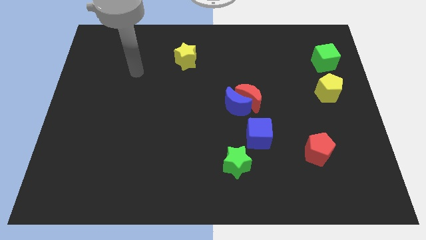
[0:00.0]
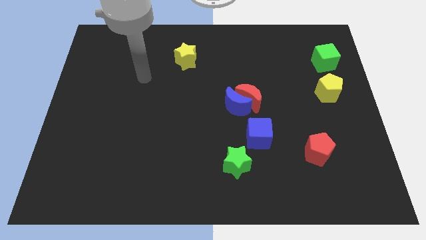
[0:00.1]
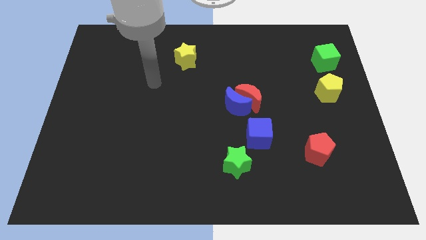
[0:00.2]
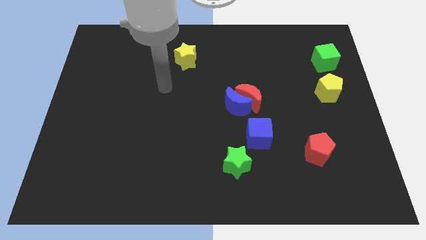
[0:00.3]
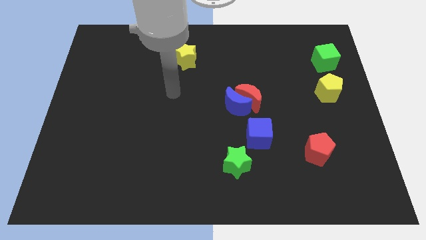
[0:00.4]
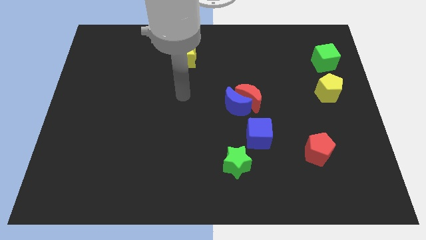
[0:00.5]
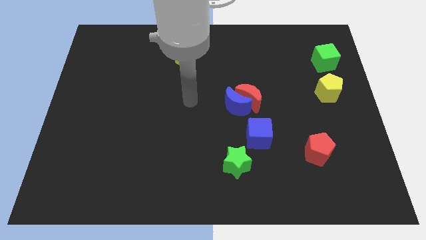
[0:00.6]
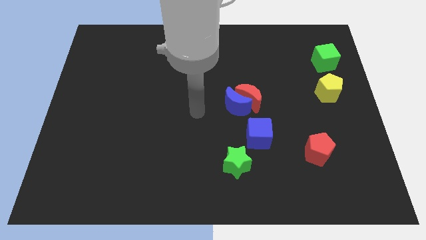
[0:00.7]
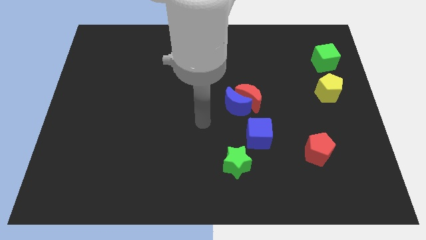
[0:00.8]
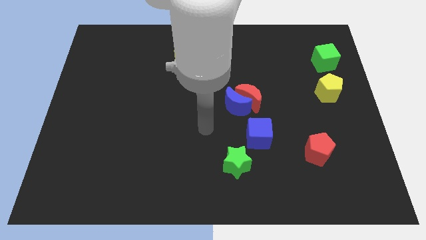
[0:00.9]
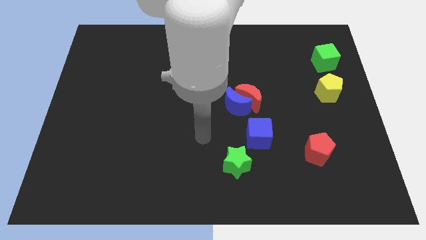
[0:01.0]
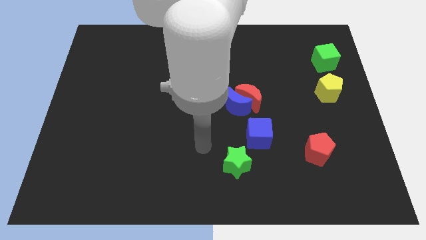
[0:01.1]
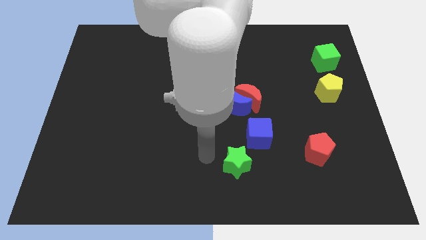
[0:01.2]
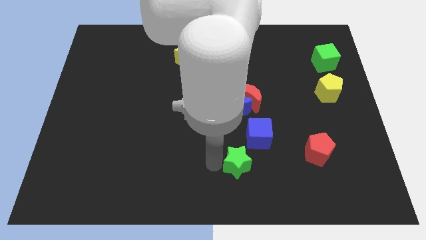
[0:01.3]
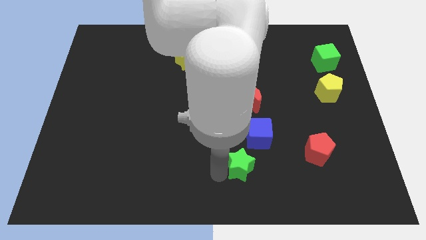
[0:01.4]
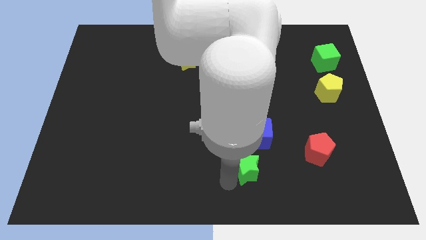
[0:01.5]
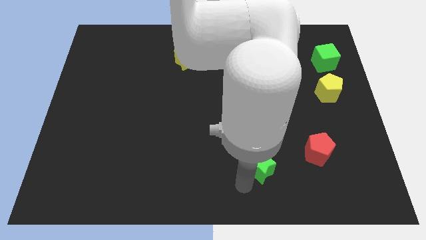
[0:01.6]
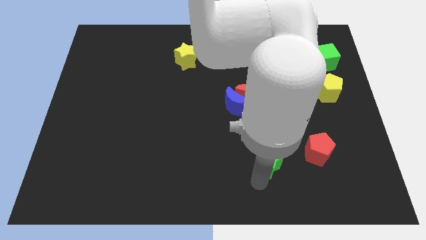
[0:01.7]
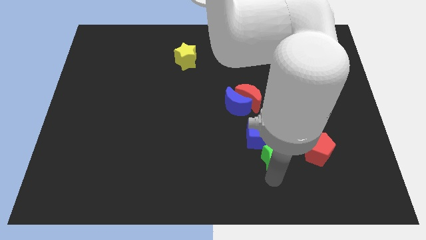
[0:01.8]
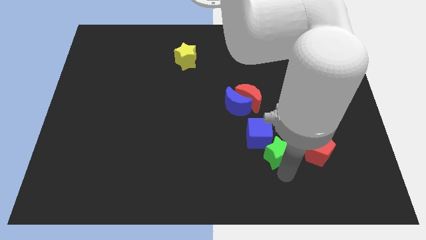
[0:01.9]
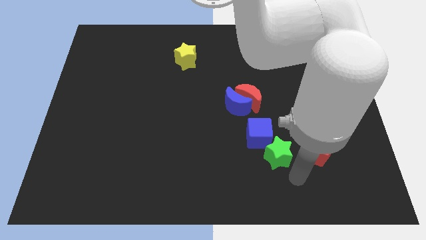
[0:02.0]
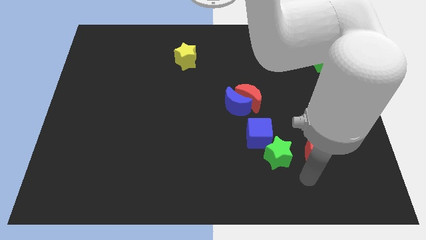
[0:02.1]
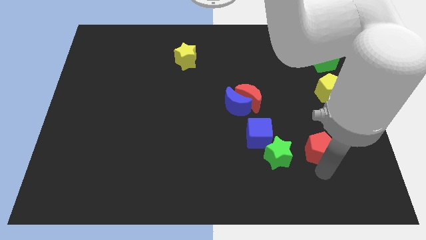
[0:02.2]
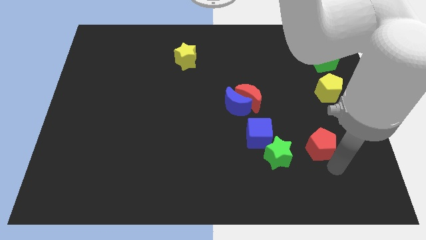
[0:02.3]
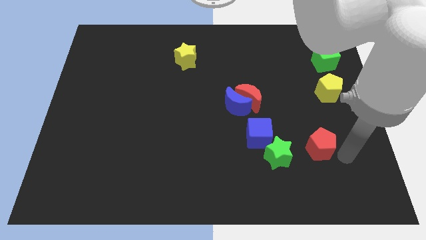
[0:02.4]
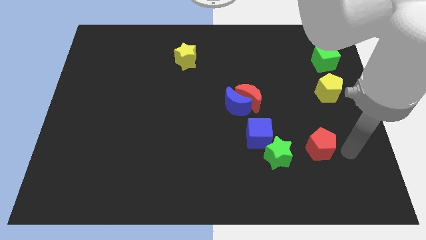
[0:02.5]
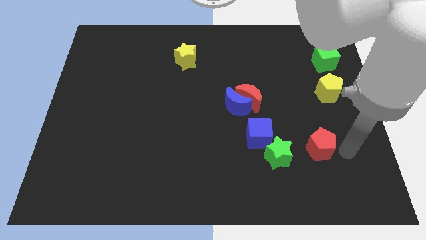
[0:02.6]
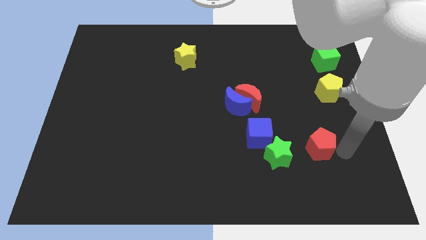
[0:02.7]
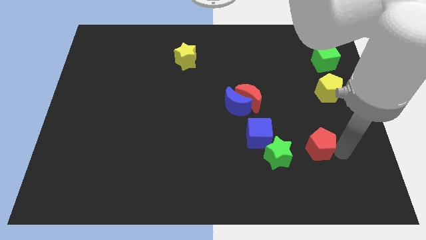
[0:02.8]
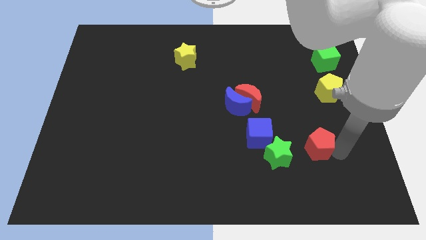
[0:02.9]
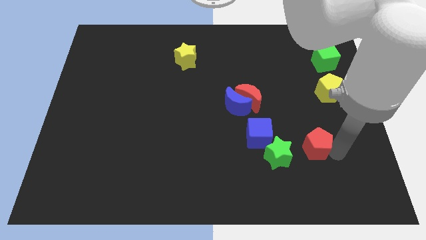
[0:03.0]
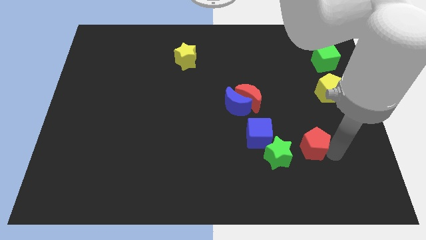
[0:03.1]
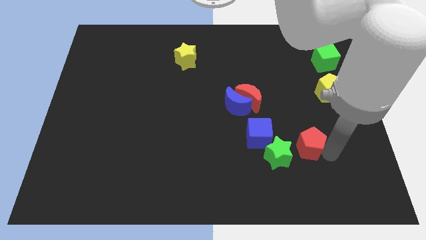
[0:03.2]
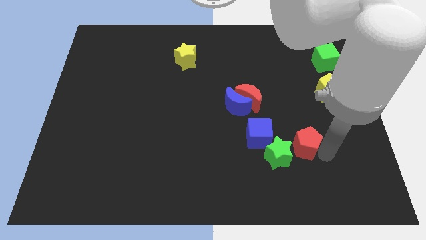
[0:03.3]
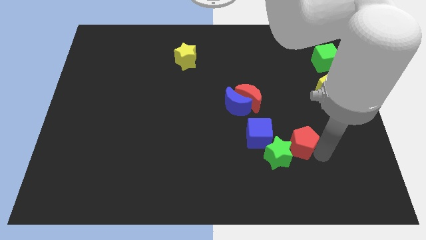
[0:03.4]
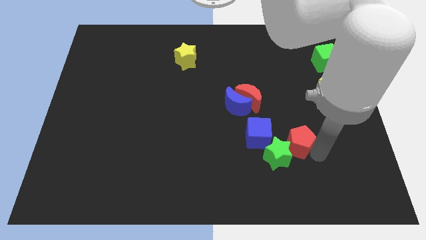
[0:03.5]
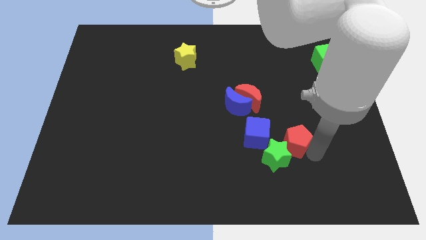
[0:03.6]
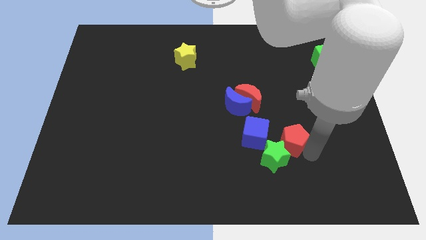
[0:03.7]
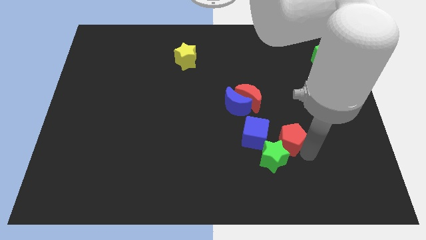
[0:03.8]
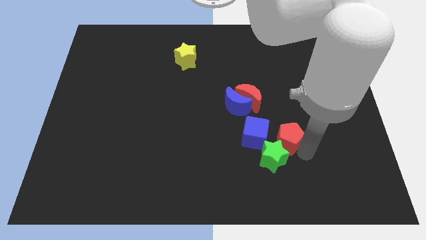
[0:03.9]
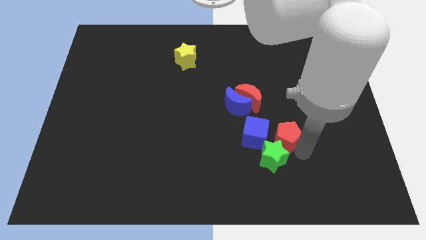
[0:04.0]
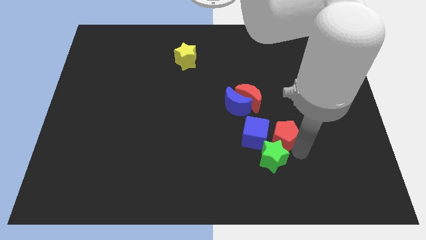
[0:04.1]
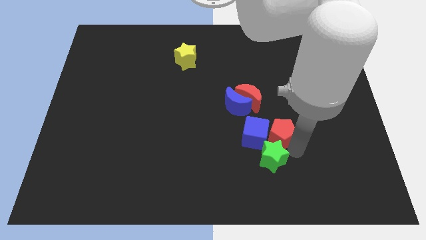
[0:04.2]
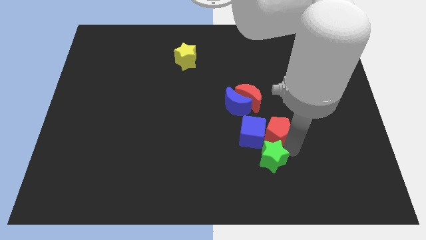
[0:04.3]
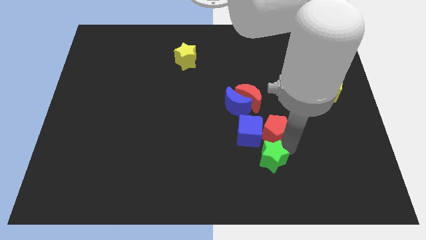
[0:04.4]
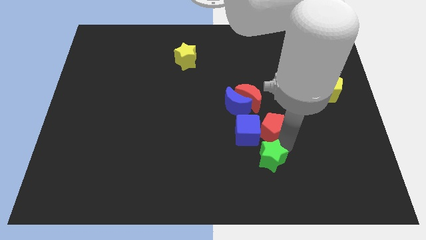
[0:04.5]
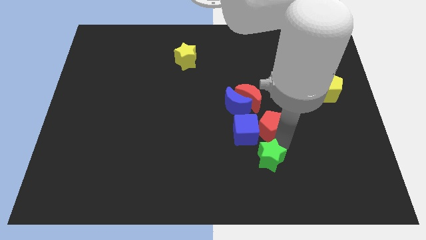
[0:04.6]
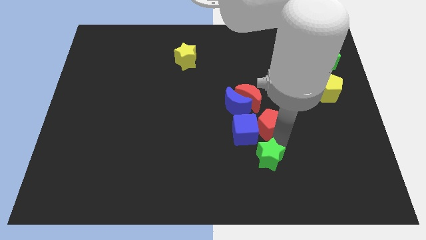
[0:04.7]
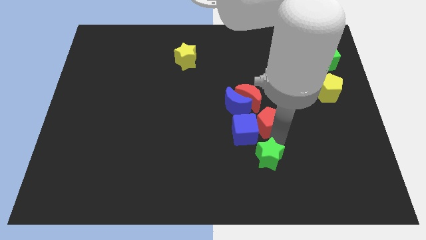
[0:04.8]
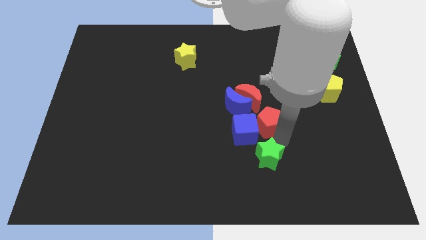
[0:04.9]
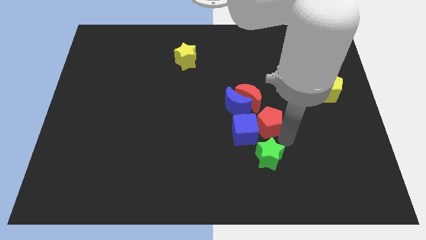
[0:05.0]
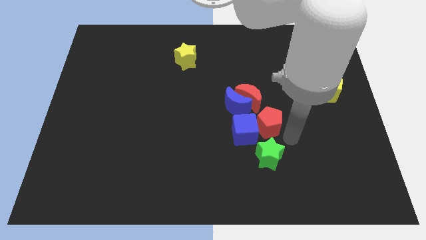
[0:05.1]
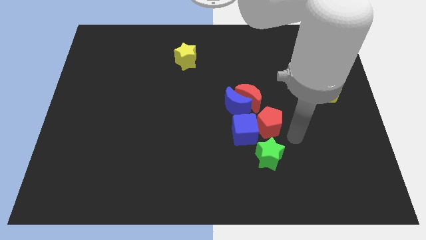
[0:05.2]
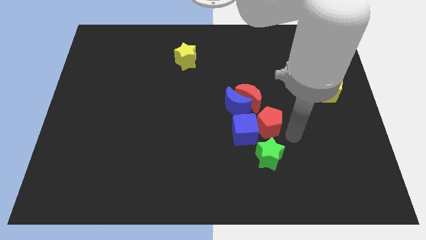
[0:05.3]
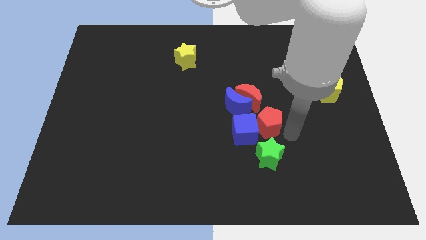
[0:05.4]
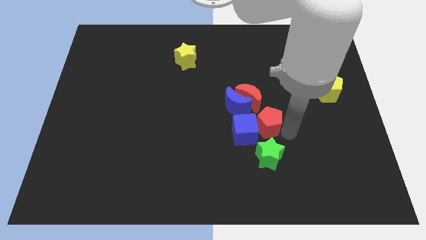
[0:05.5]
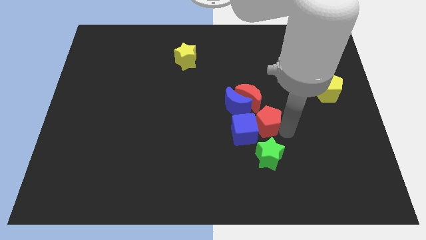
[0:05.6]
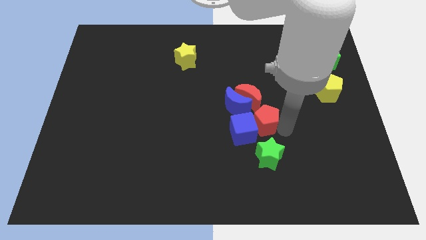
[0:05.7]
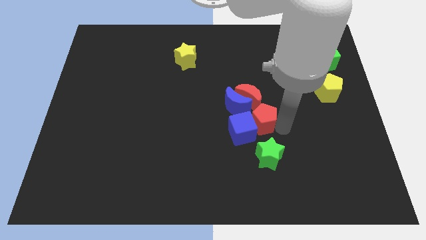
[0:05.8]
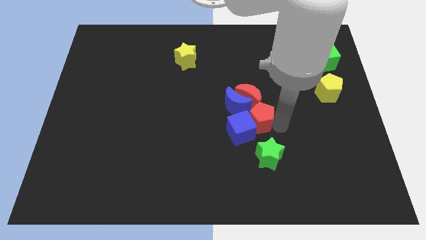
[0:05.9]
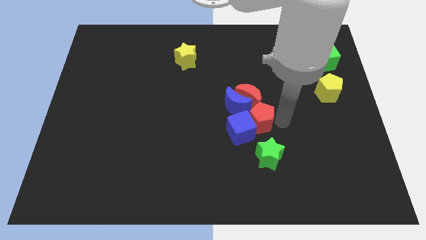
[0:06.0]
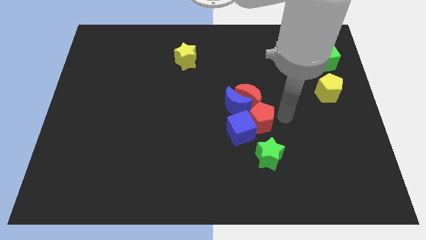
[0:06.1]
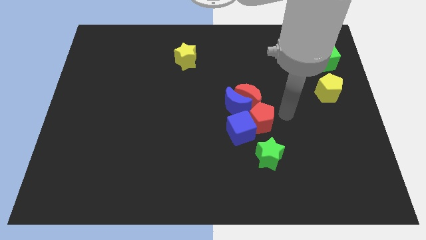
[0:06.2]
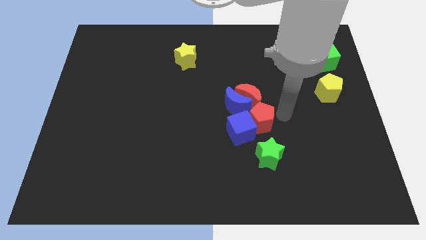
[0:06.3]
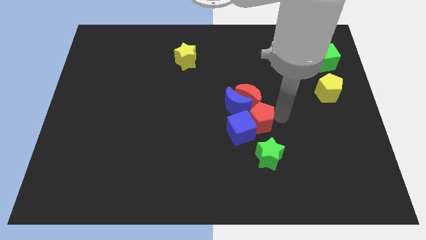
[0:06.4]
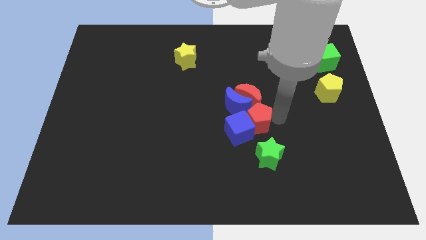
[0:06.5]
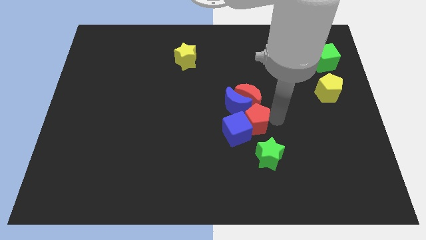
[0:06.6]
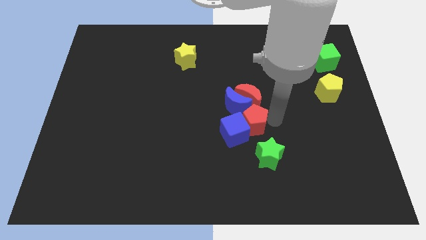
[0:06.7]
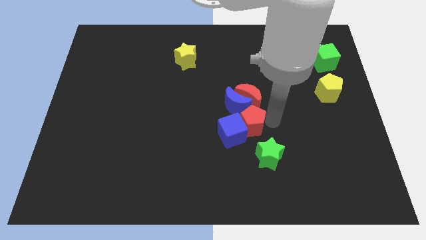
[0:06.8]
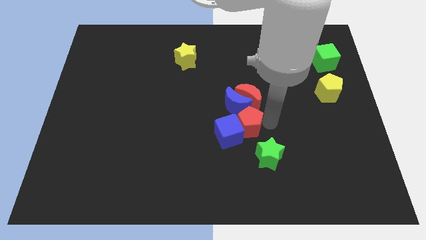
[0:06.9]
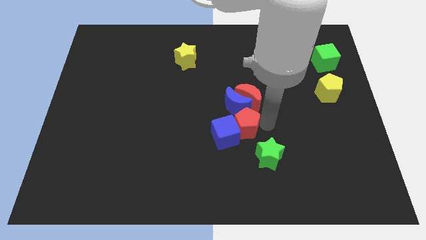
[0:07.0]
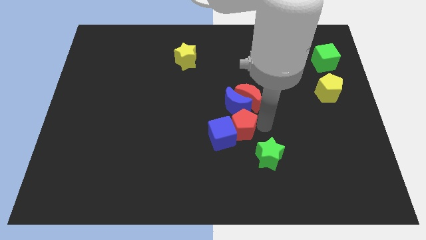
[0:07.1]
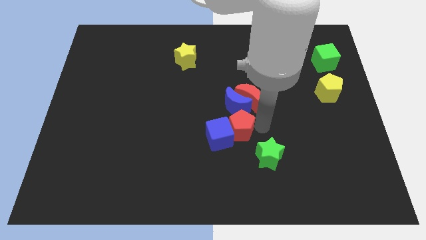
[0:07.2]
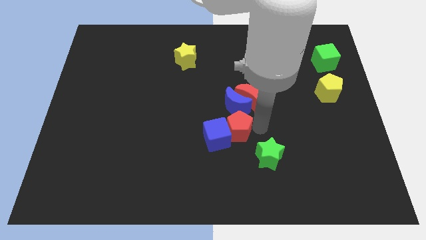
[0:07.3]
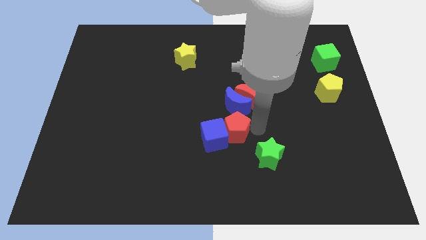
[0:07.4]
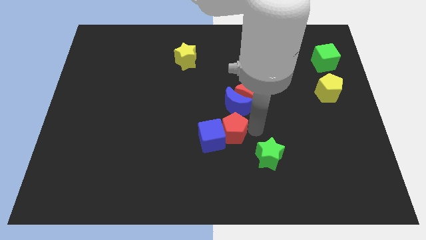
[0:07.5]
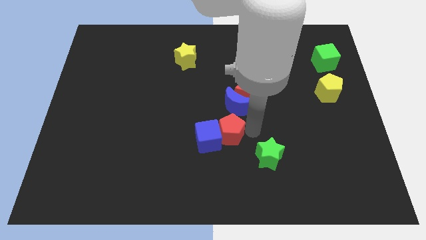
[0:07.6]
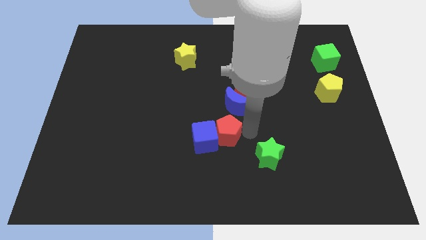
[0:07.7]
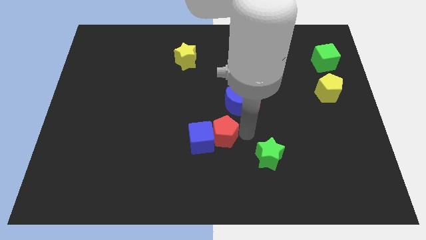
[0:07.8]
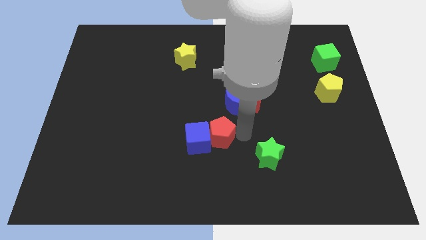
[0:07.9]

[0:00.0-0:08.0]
push the red pentagon to the left
